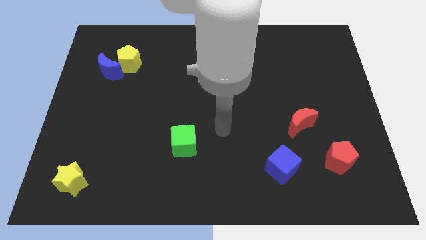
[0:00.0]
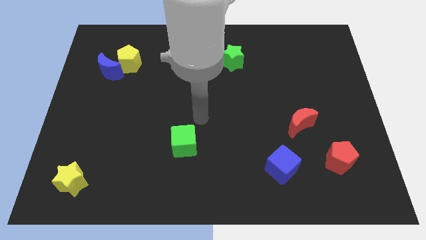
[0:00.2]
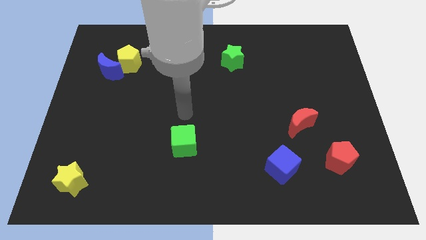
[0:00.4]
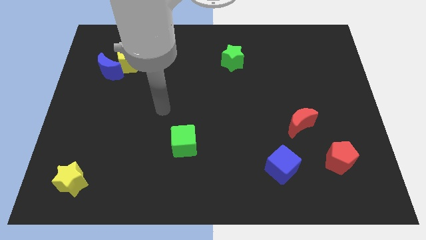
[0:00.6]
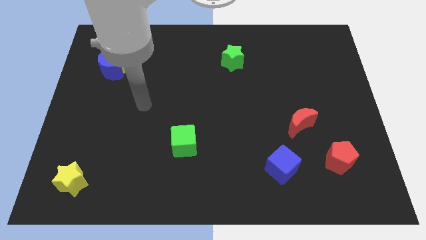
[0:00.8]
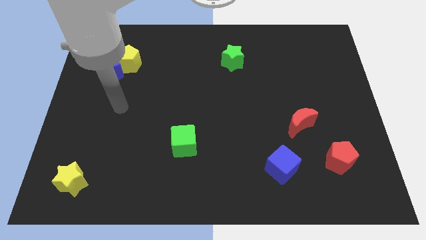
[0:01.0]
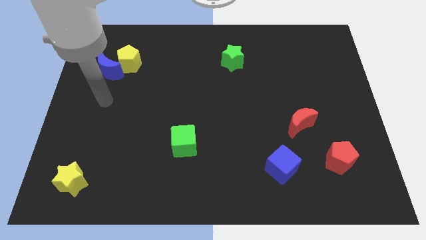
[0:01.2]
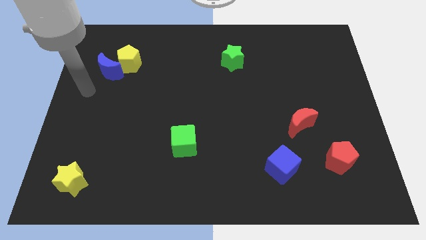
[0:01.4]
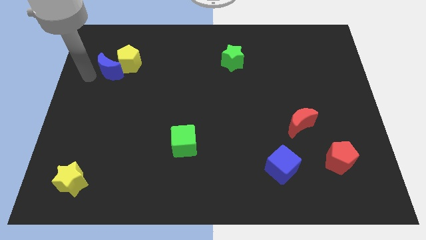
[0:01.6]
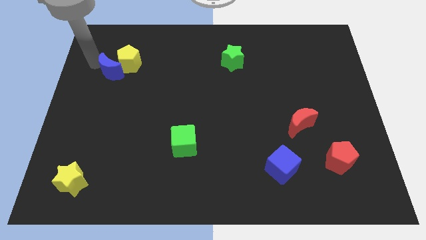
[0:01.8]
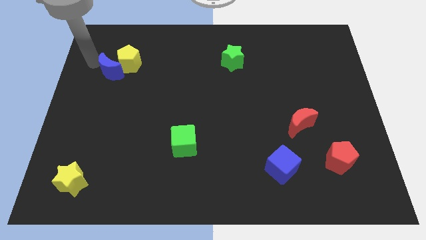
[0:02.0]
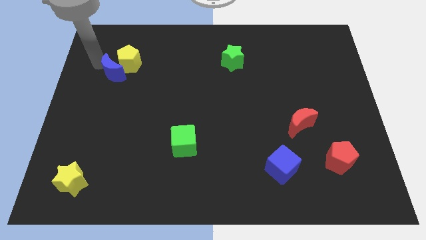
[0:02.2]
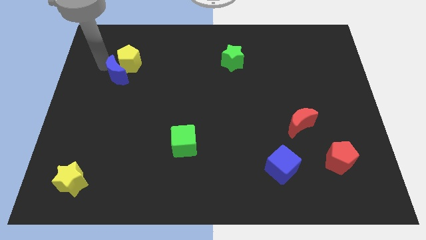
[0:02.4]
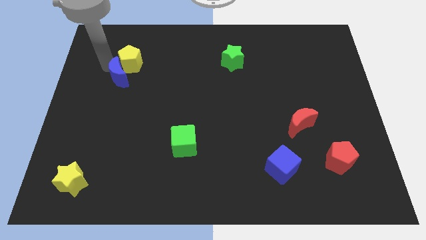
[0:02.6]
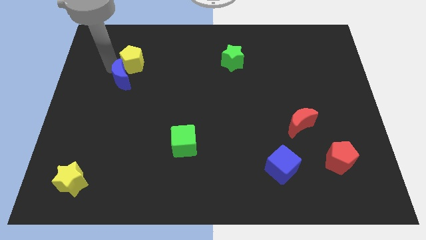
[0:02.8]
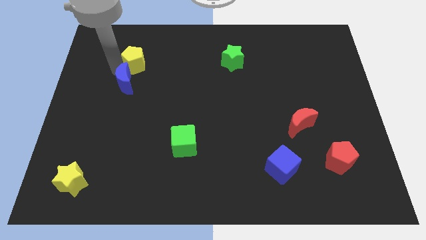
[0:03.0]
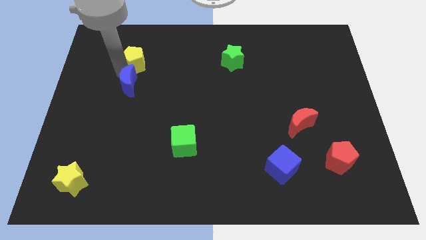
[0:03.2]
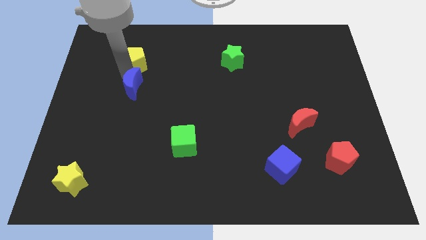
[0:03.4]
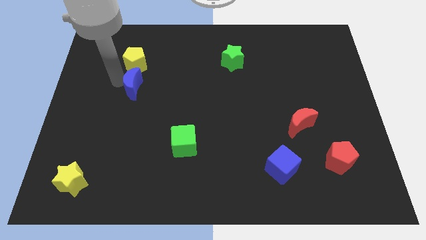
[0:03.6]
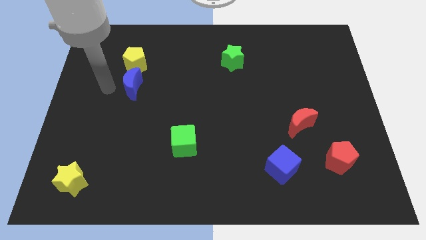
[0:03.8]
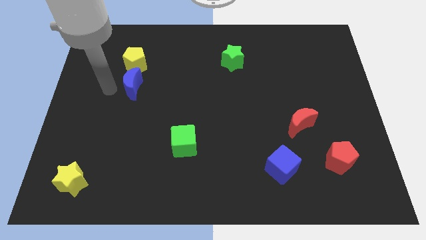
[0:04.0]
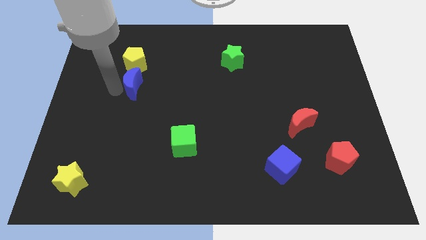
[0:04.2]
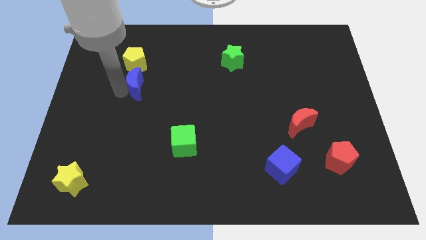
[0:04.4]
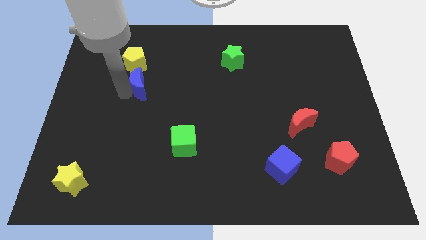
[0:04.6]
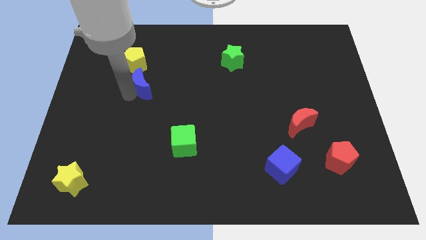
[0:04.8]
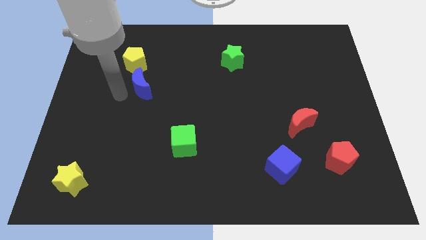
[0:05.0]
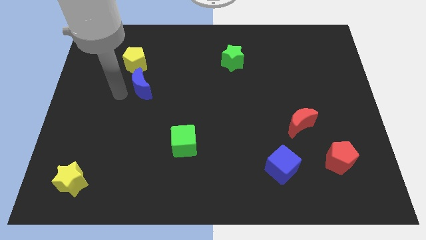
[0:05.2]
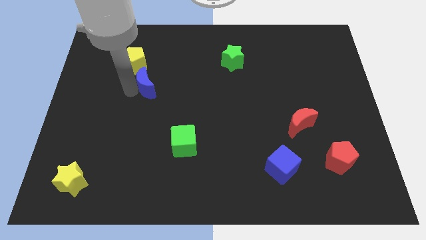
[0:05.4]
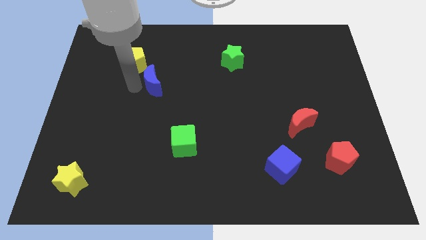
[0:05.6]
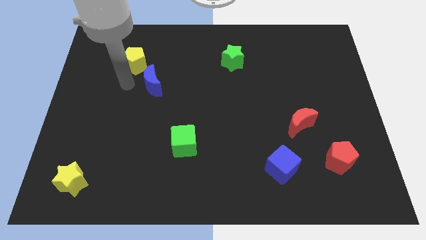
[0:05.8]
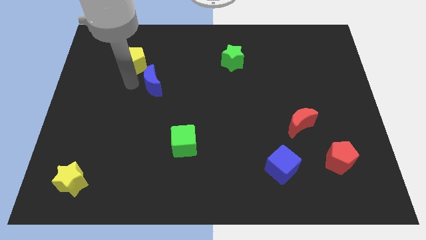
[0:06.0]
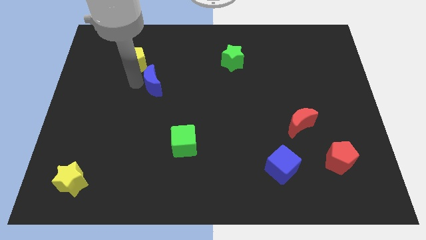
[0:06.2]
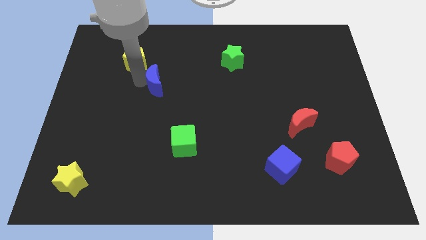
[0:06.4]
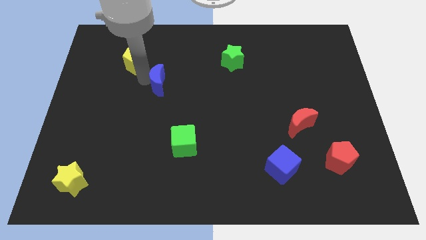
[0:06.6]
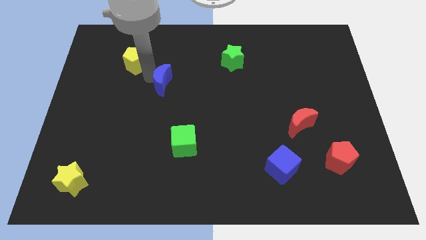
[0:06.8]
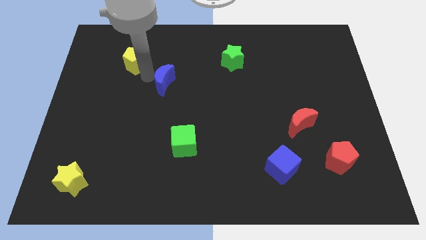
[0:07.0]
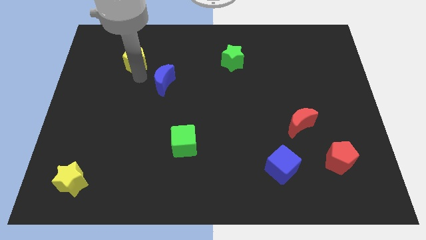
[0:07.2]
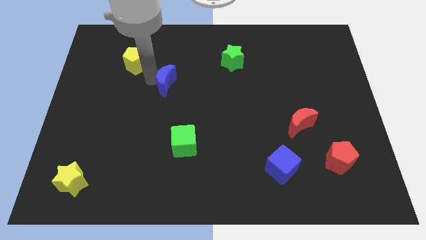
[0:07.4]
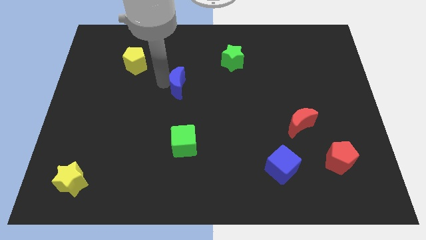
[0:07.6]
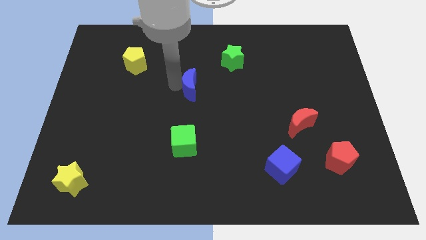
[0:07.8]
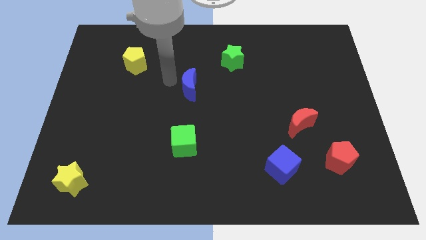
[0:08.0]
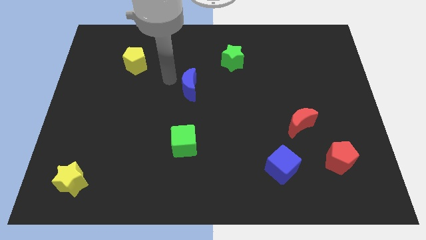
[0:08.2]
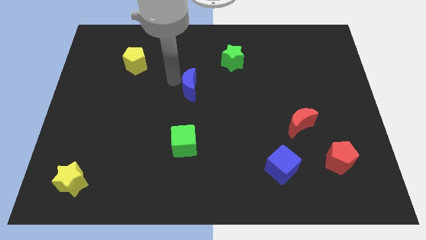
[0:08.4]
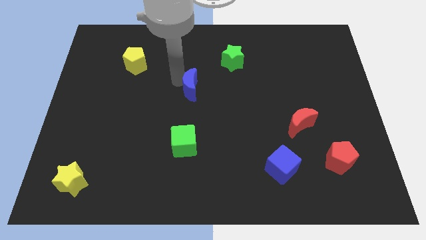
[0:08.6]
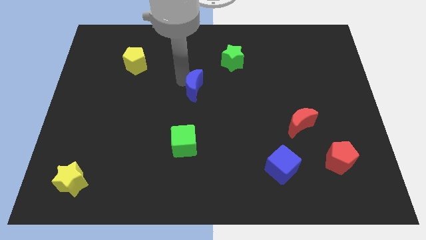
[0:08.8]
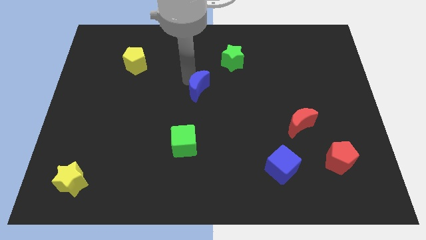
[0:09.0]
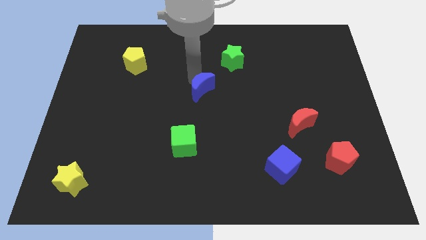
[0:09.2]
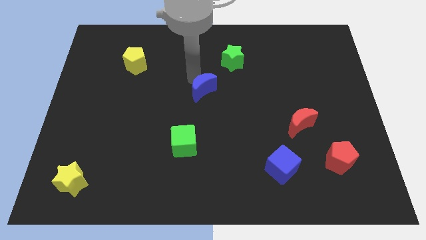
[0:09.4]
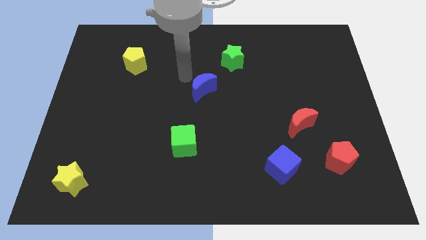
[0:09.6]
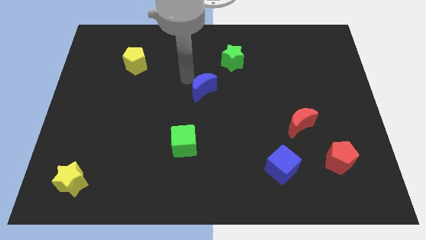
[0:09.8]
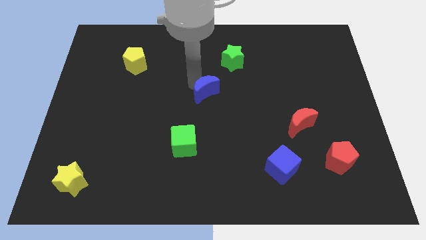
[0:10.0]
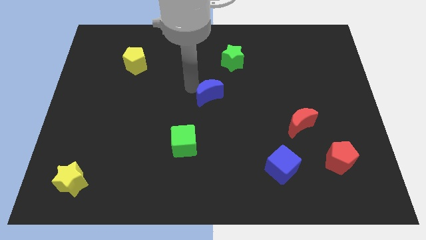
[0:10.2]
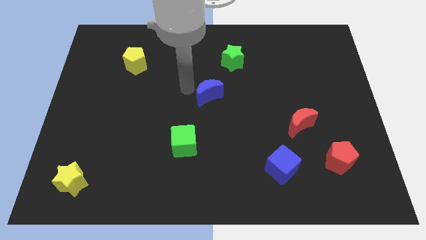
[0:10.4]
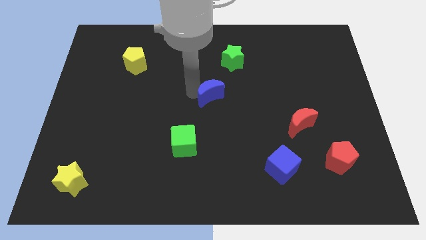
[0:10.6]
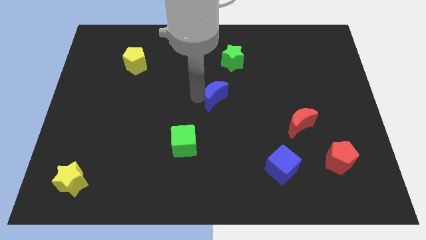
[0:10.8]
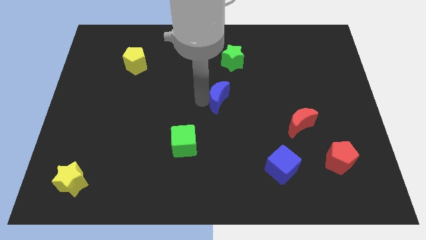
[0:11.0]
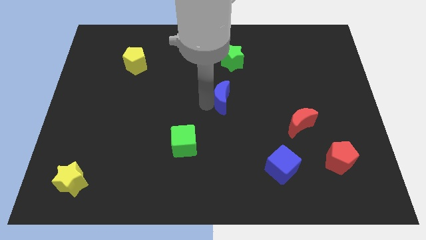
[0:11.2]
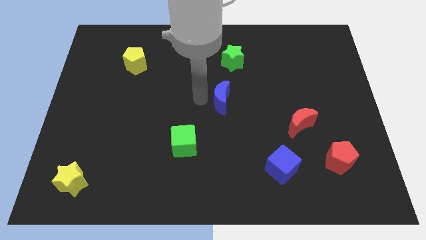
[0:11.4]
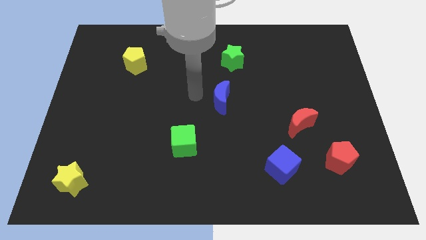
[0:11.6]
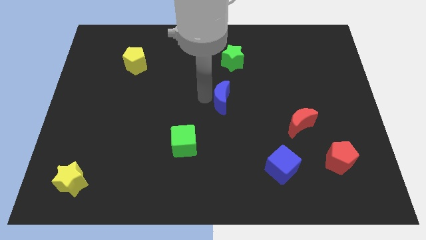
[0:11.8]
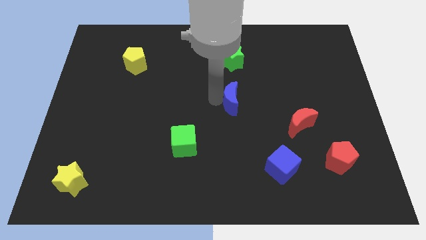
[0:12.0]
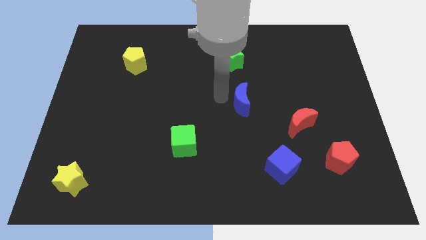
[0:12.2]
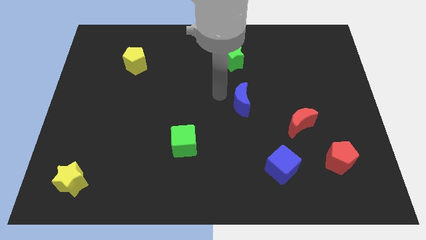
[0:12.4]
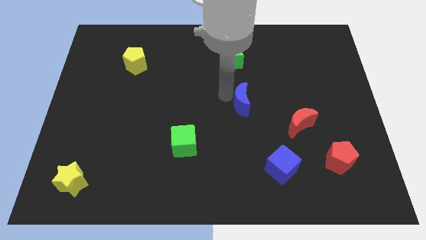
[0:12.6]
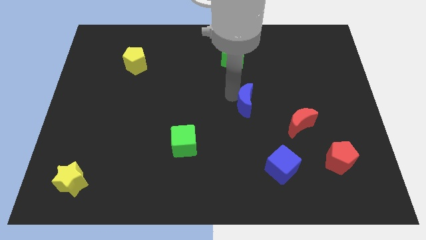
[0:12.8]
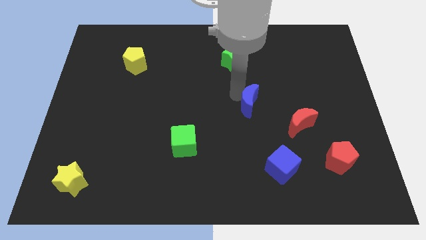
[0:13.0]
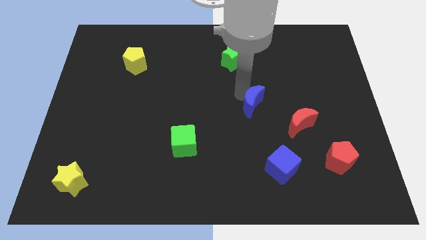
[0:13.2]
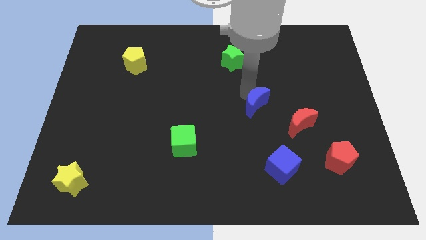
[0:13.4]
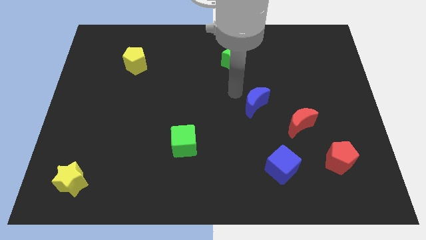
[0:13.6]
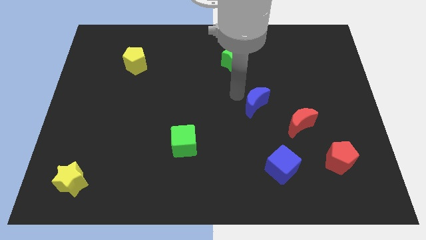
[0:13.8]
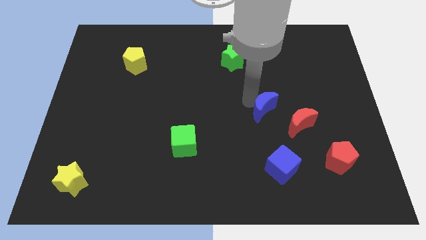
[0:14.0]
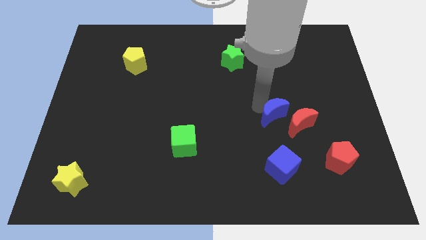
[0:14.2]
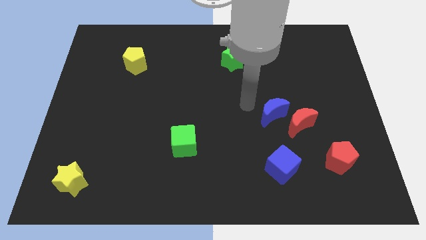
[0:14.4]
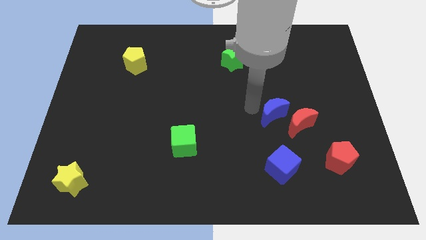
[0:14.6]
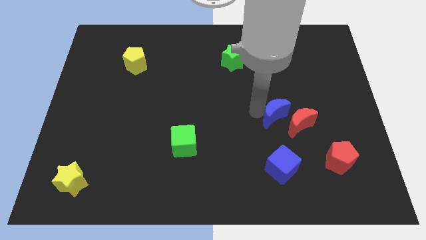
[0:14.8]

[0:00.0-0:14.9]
move the blue moon next to the red moon

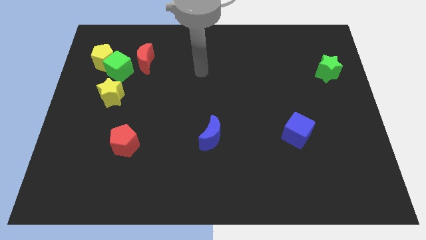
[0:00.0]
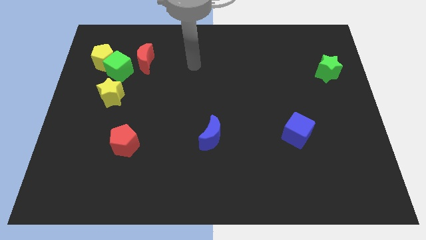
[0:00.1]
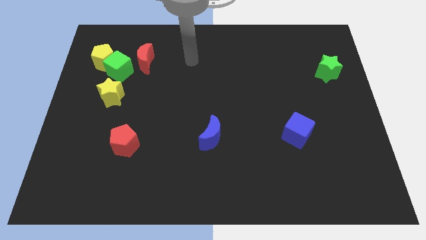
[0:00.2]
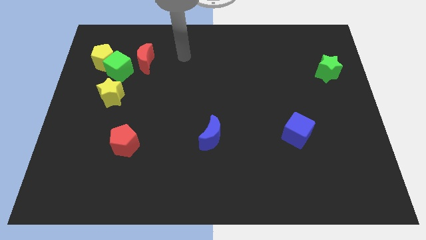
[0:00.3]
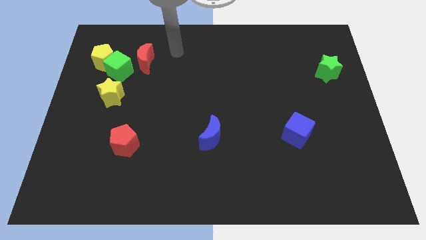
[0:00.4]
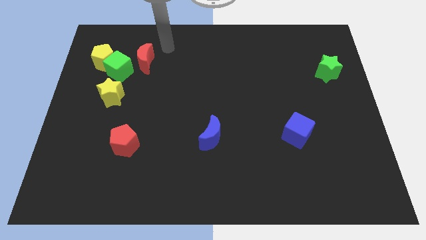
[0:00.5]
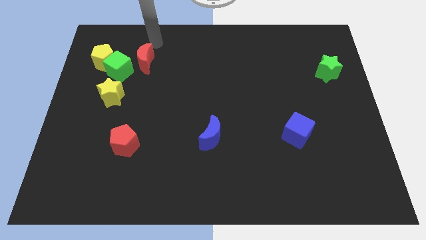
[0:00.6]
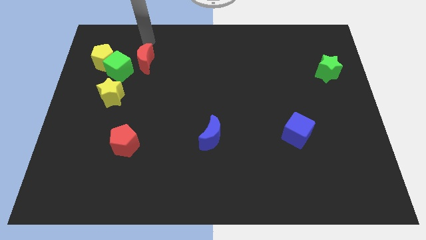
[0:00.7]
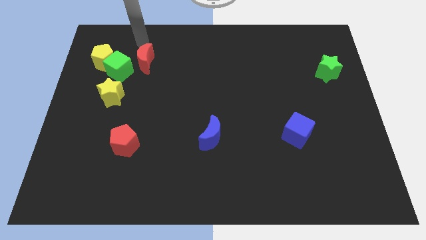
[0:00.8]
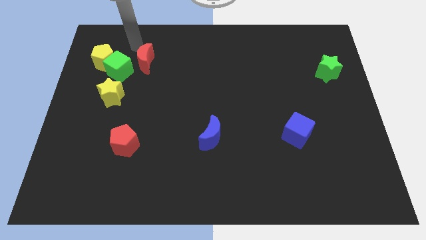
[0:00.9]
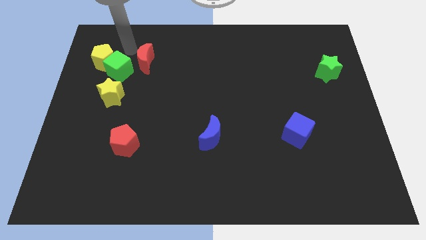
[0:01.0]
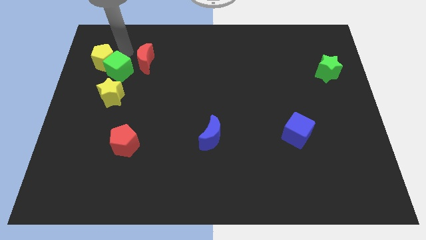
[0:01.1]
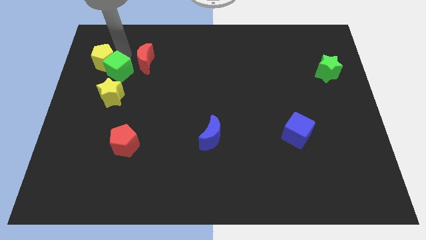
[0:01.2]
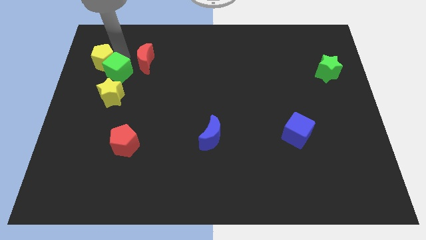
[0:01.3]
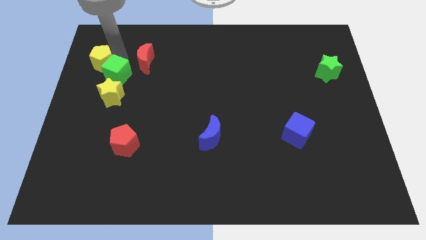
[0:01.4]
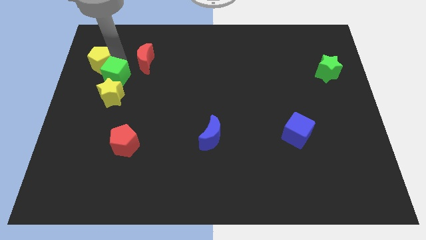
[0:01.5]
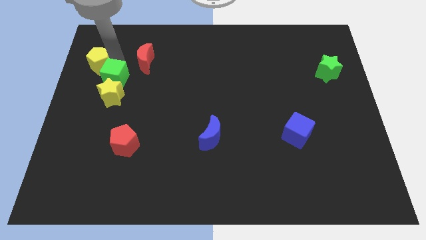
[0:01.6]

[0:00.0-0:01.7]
slide the green cube towards the yellow star
